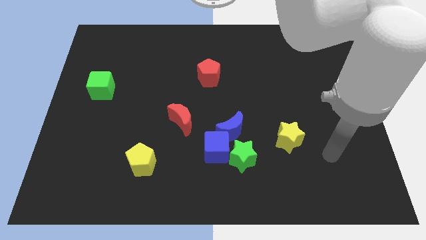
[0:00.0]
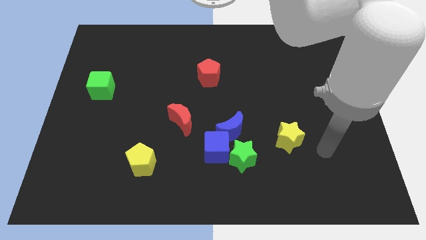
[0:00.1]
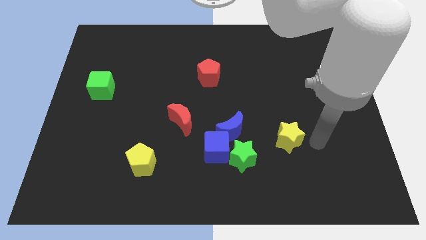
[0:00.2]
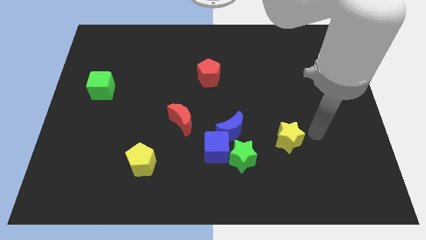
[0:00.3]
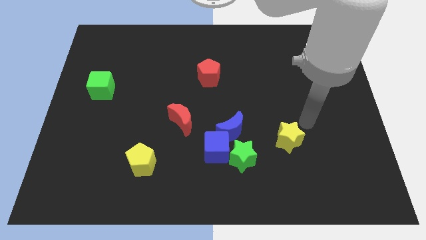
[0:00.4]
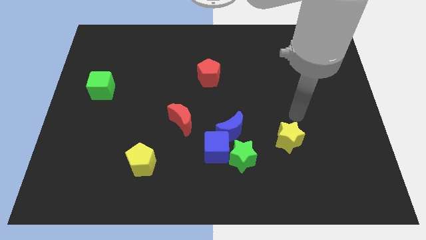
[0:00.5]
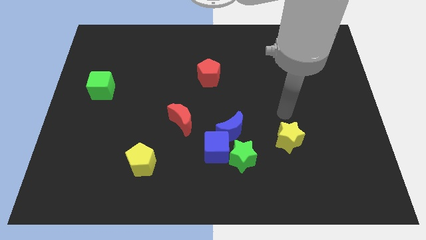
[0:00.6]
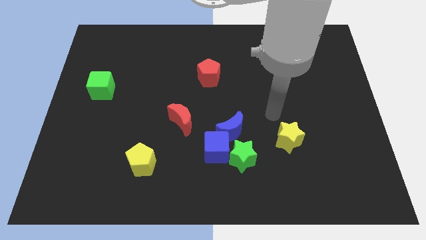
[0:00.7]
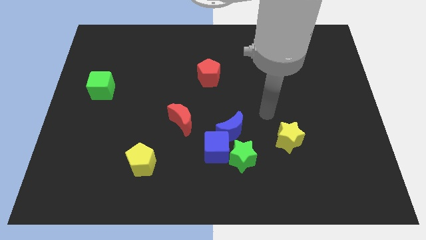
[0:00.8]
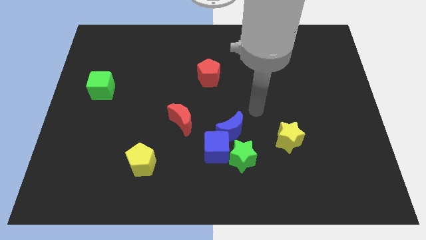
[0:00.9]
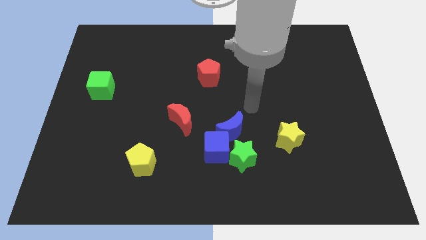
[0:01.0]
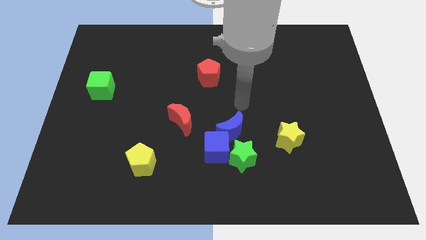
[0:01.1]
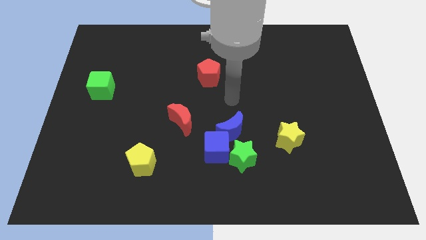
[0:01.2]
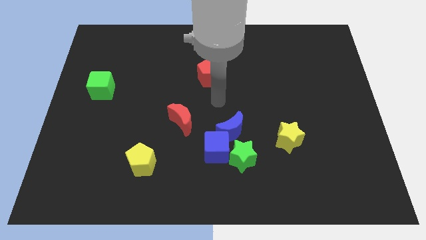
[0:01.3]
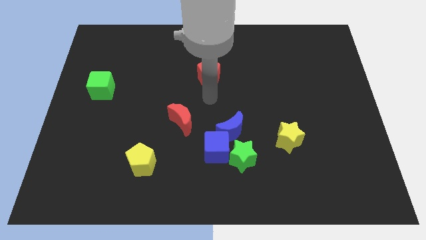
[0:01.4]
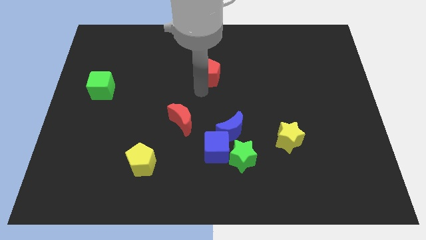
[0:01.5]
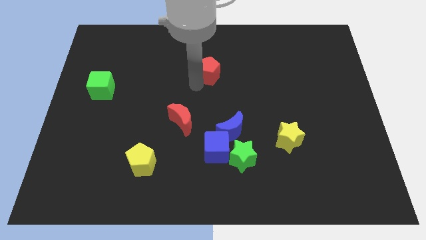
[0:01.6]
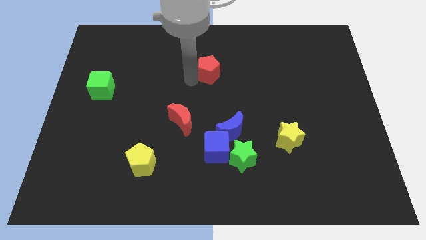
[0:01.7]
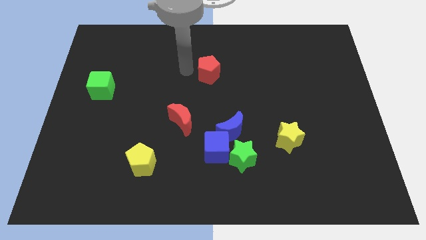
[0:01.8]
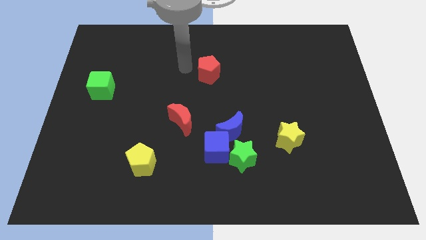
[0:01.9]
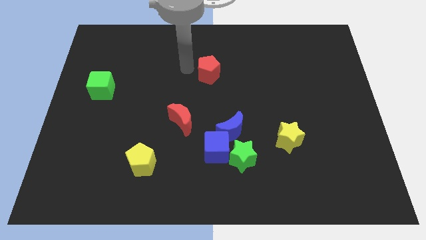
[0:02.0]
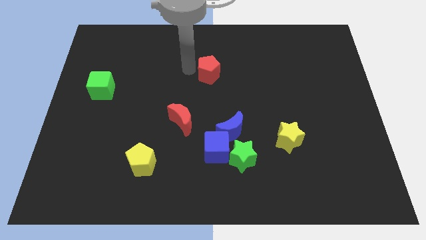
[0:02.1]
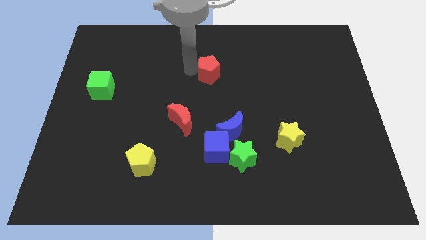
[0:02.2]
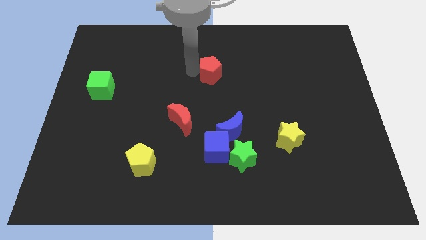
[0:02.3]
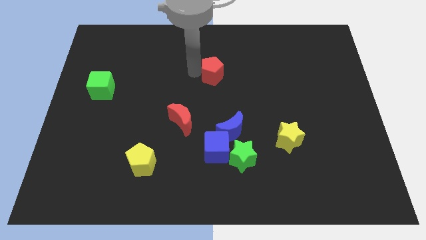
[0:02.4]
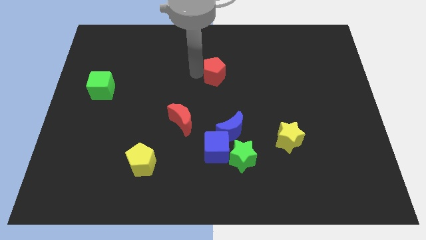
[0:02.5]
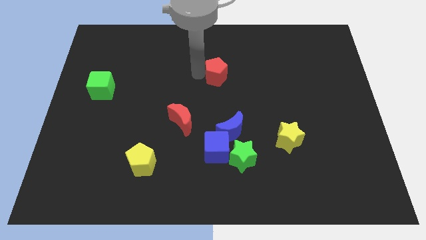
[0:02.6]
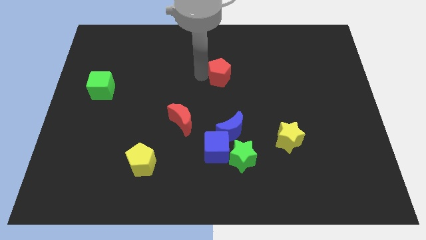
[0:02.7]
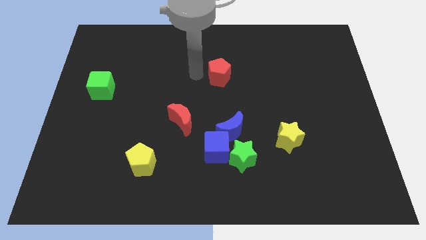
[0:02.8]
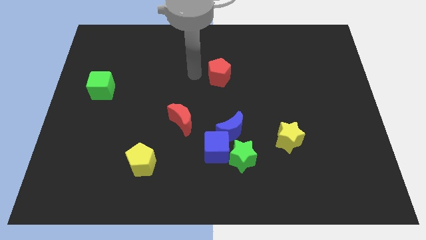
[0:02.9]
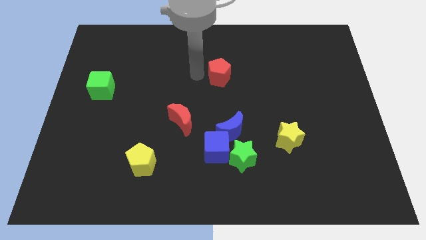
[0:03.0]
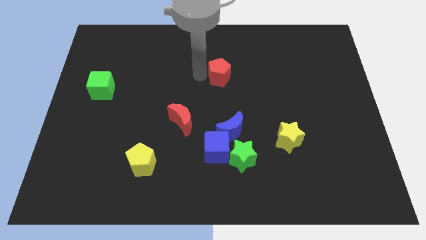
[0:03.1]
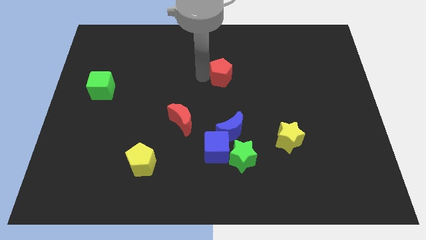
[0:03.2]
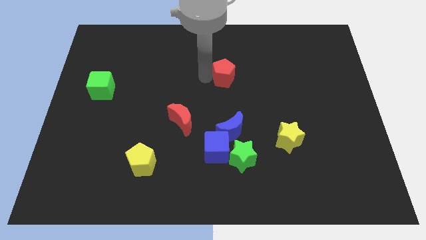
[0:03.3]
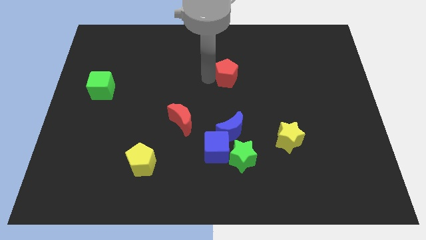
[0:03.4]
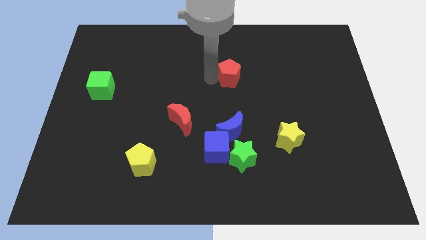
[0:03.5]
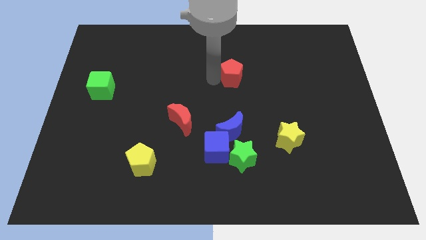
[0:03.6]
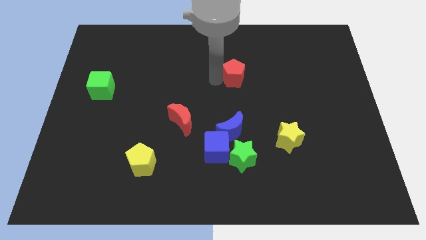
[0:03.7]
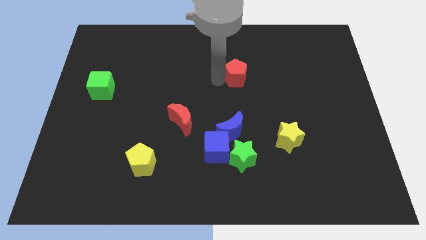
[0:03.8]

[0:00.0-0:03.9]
slide the red pentagon right somewhat

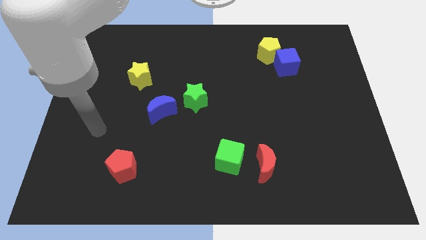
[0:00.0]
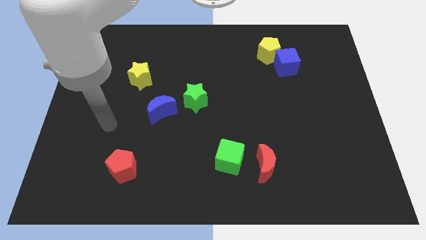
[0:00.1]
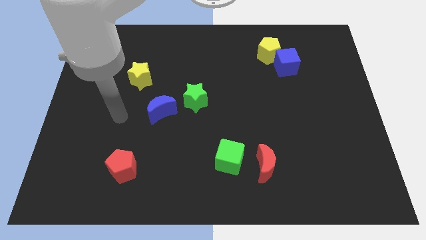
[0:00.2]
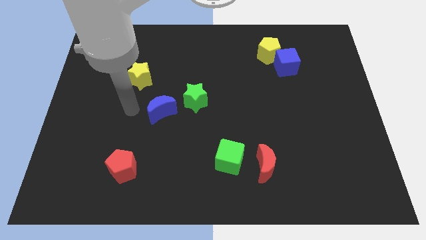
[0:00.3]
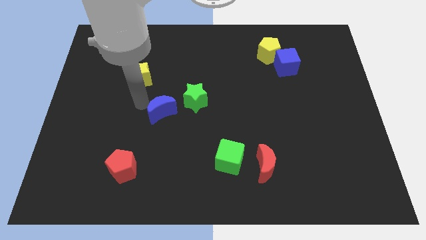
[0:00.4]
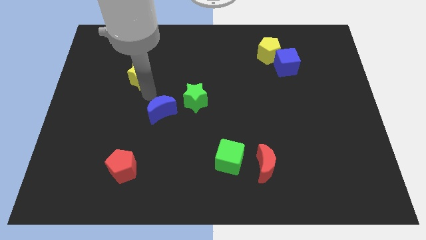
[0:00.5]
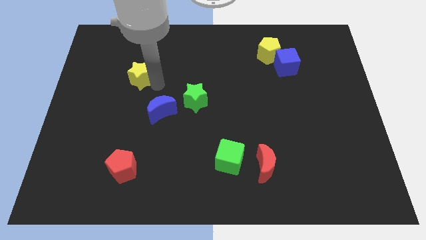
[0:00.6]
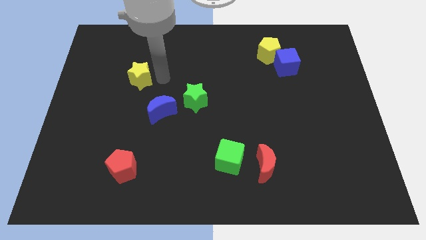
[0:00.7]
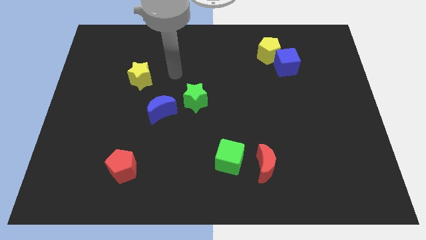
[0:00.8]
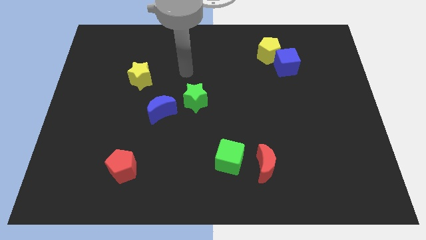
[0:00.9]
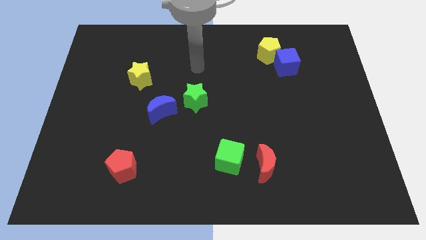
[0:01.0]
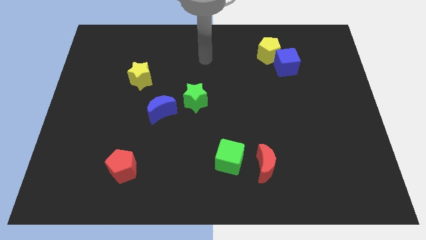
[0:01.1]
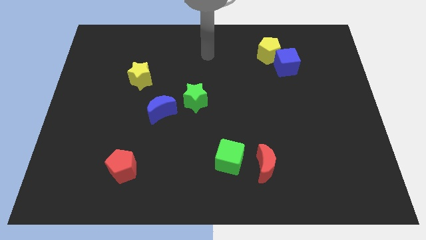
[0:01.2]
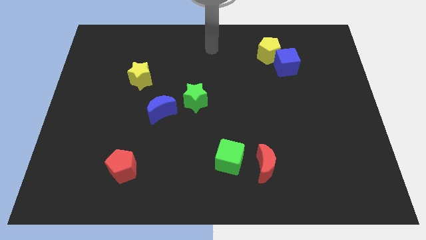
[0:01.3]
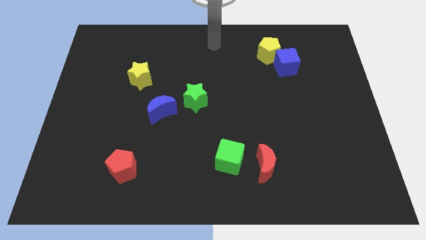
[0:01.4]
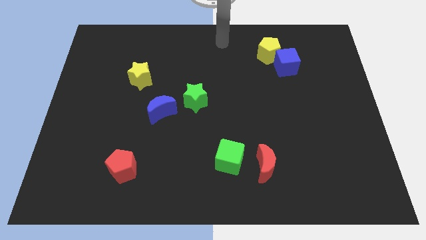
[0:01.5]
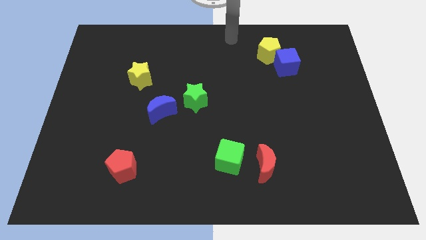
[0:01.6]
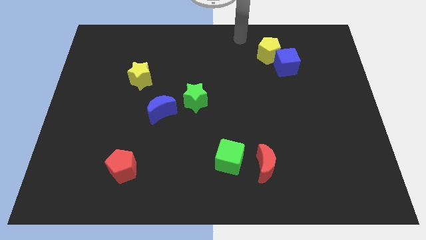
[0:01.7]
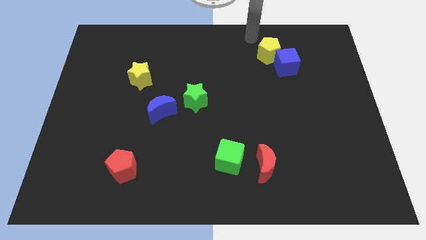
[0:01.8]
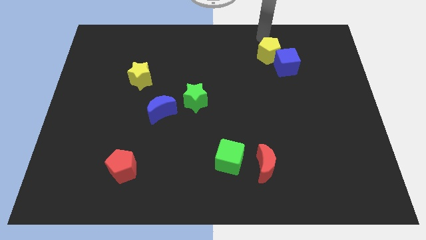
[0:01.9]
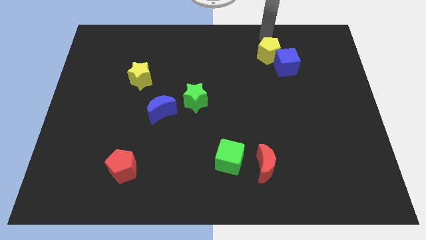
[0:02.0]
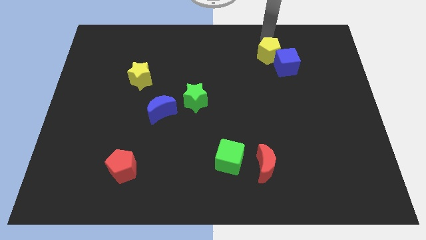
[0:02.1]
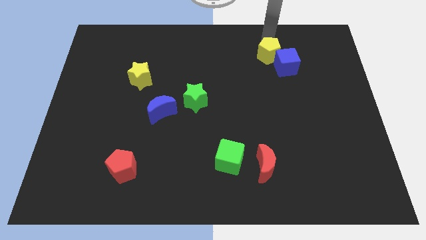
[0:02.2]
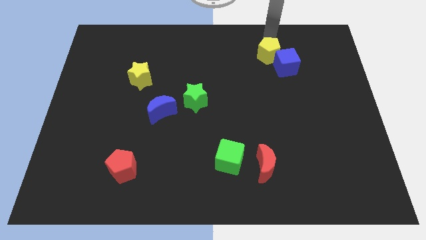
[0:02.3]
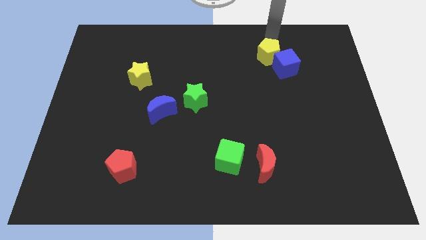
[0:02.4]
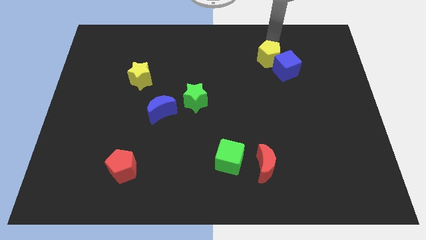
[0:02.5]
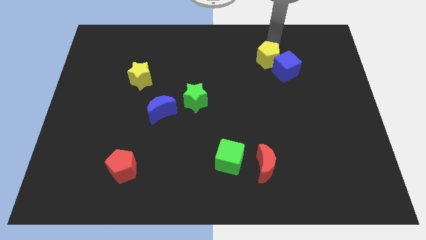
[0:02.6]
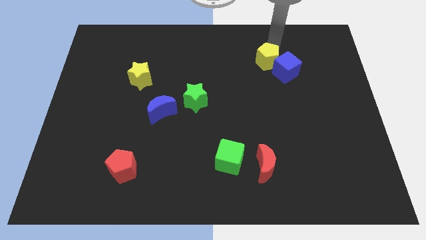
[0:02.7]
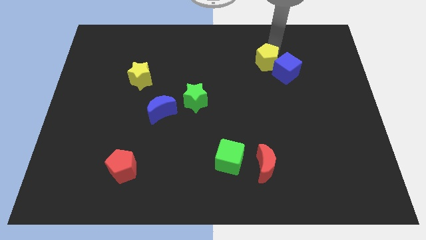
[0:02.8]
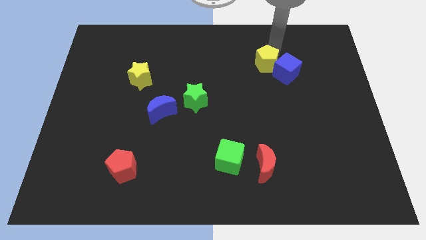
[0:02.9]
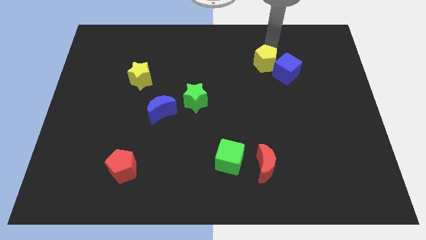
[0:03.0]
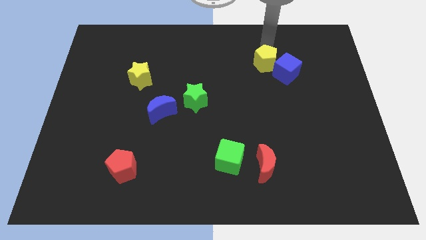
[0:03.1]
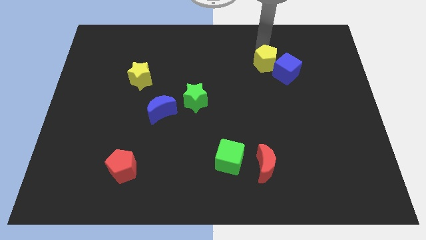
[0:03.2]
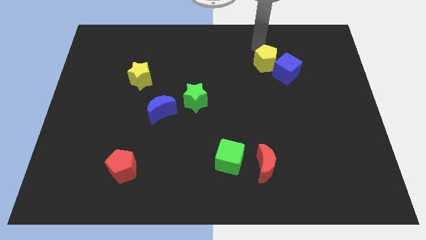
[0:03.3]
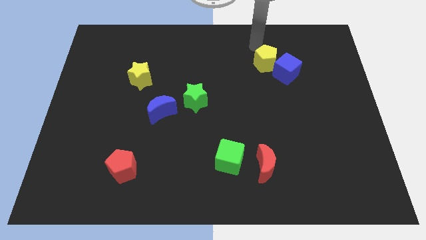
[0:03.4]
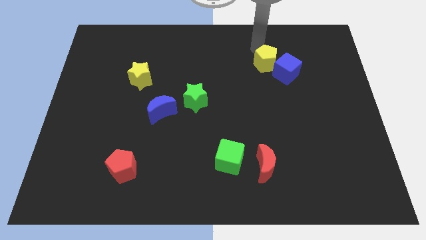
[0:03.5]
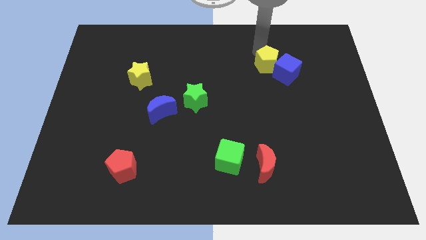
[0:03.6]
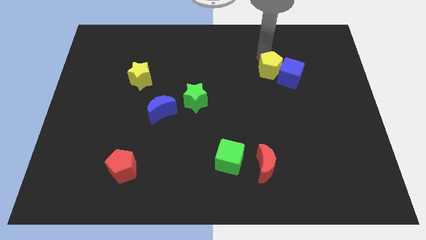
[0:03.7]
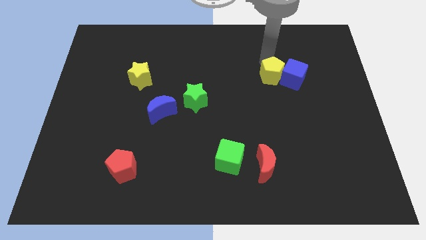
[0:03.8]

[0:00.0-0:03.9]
push the yellow pentagon a bit downwards

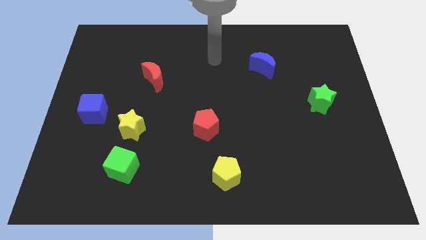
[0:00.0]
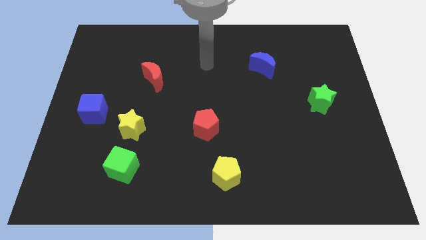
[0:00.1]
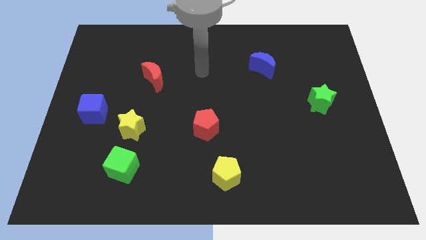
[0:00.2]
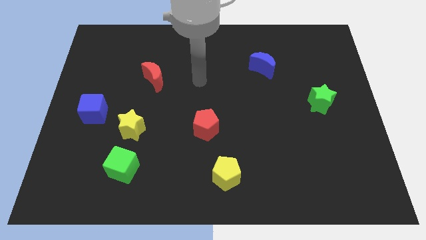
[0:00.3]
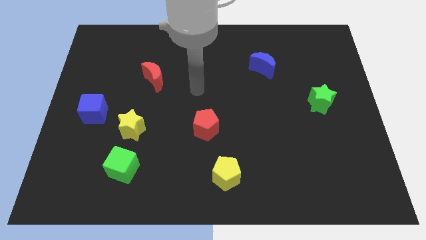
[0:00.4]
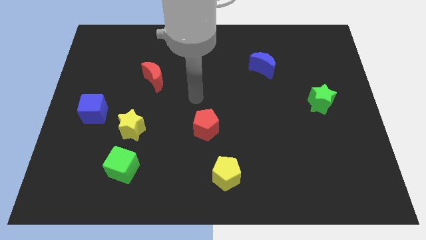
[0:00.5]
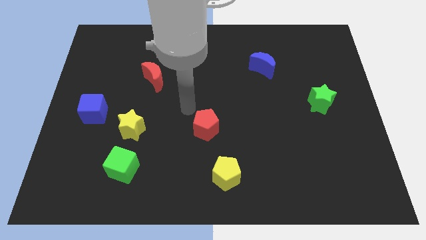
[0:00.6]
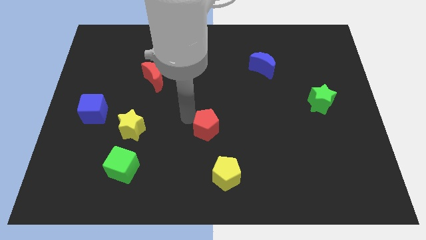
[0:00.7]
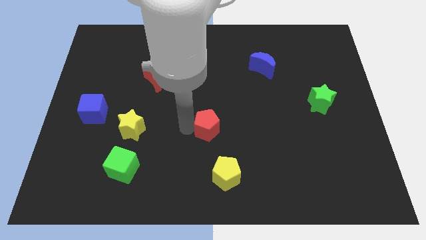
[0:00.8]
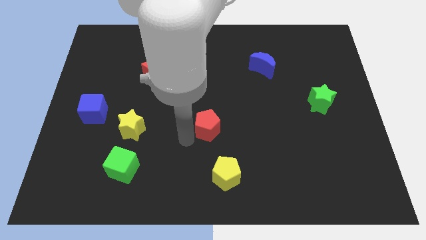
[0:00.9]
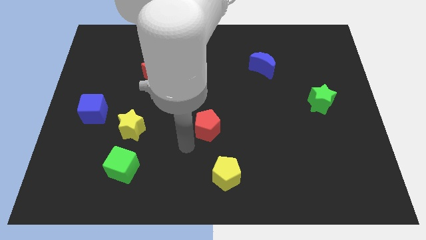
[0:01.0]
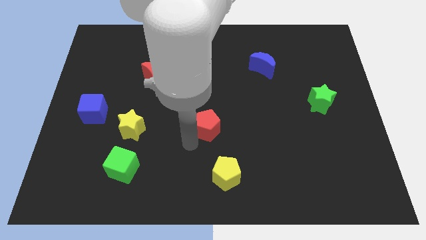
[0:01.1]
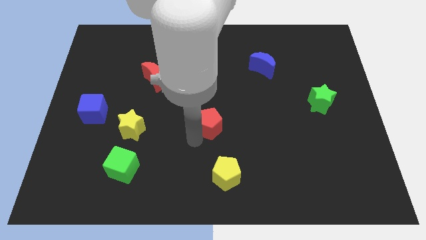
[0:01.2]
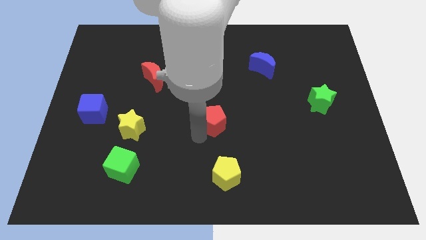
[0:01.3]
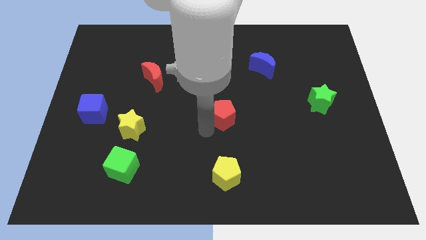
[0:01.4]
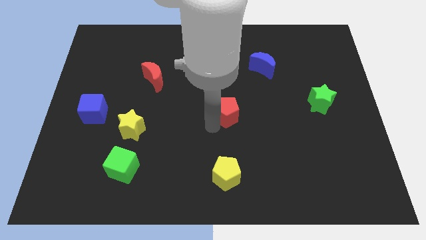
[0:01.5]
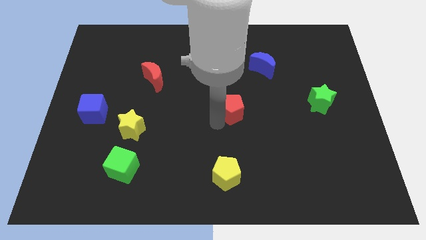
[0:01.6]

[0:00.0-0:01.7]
move the red pentagon somewhat upwards and to the right
